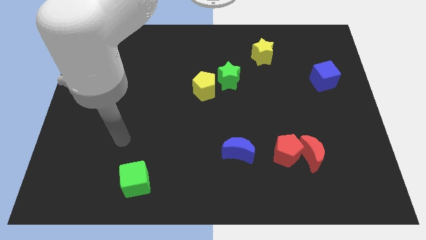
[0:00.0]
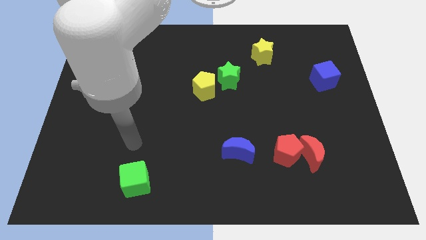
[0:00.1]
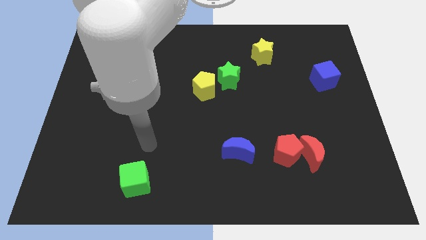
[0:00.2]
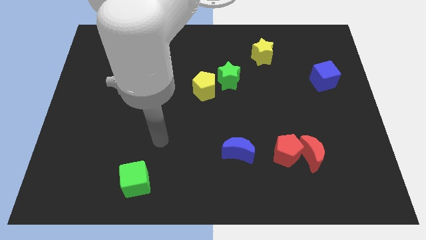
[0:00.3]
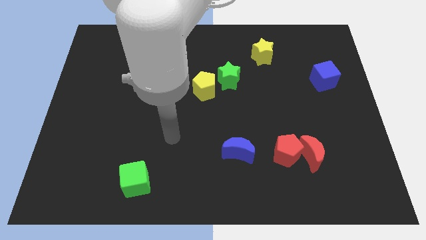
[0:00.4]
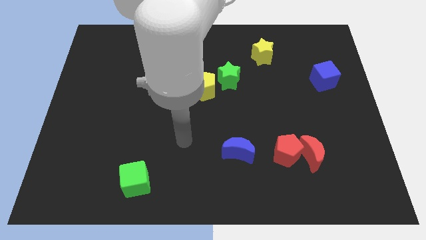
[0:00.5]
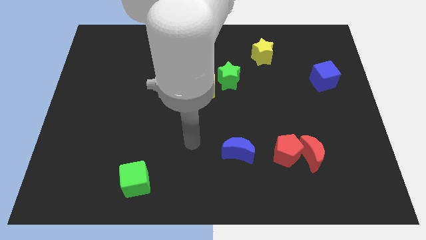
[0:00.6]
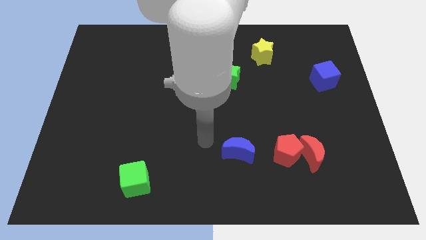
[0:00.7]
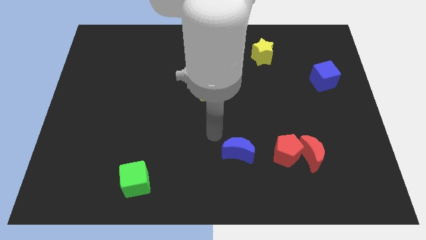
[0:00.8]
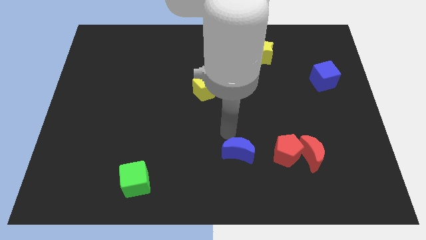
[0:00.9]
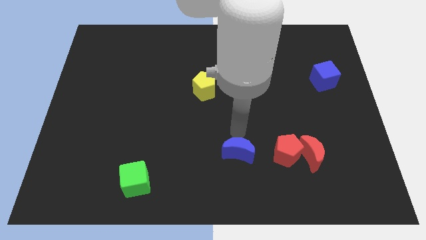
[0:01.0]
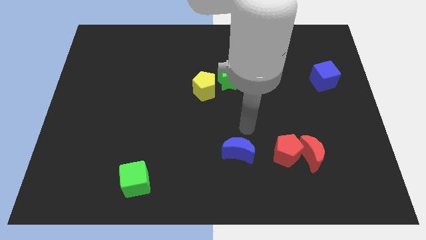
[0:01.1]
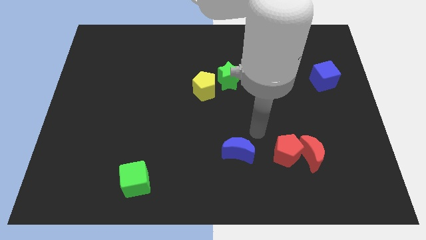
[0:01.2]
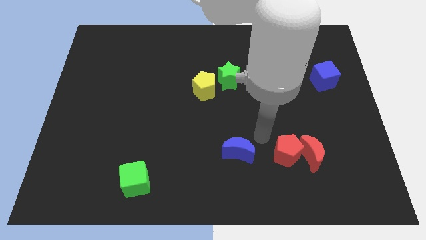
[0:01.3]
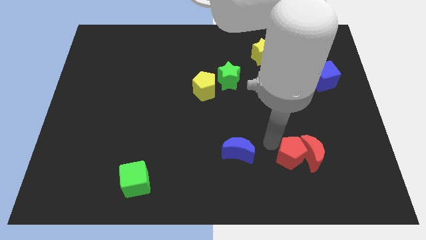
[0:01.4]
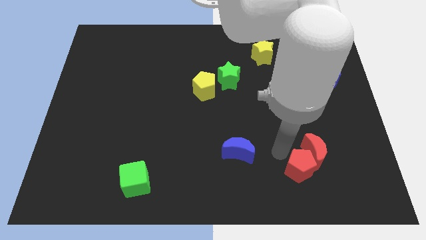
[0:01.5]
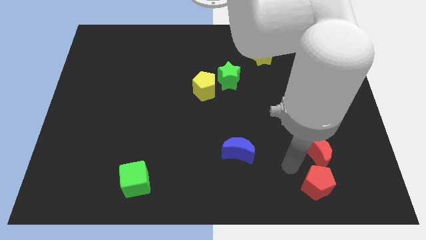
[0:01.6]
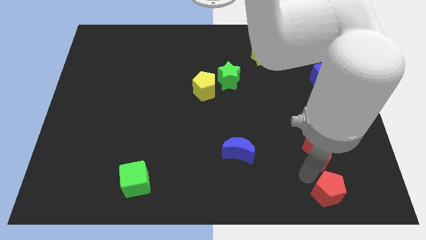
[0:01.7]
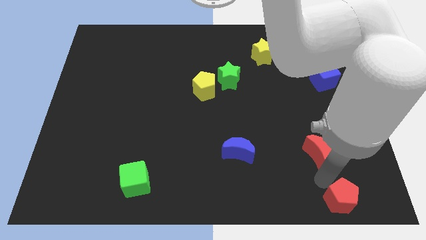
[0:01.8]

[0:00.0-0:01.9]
pull the red moon apart from the red pentagon

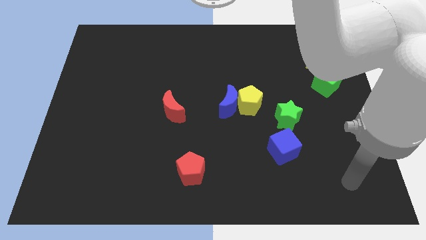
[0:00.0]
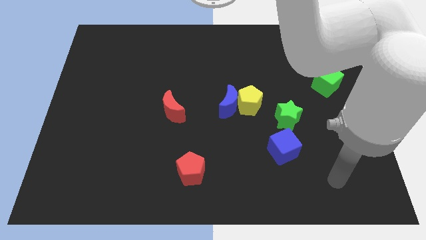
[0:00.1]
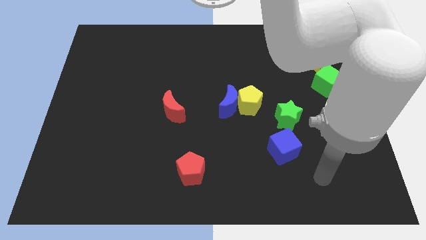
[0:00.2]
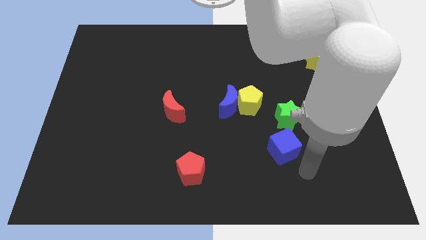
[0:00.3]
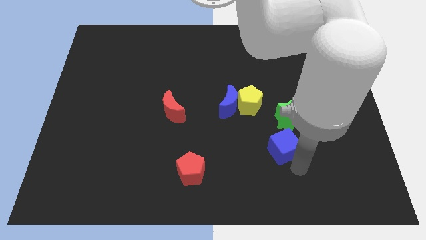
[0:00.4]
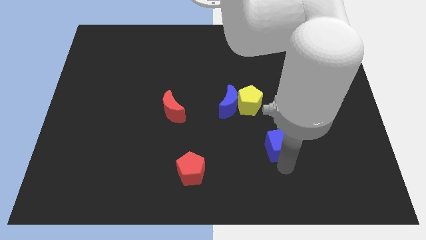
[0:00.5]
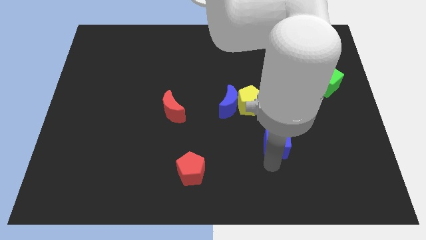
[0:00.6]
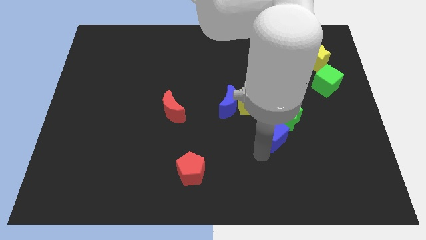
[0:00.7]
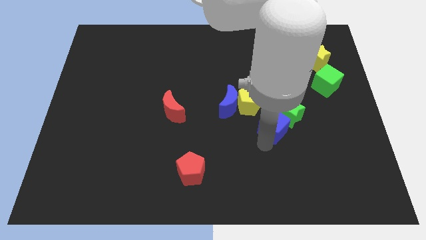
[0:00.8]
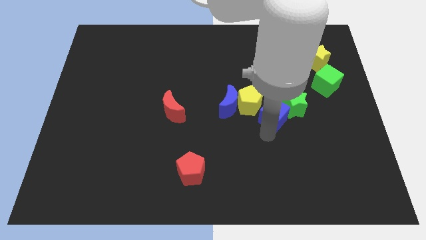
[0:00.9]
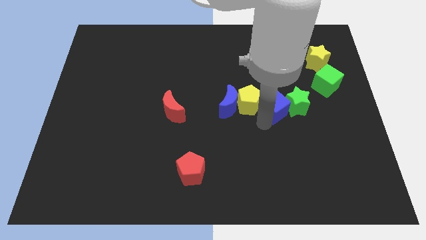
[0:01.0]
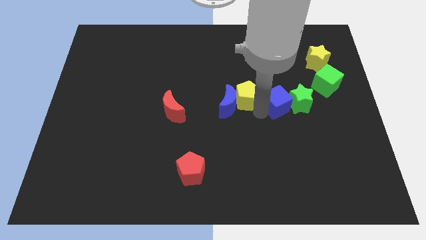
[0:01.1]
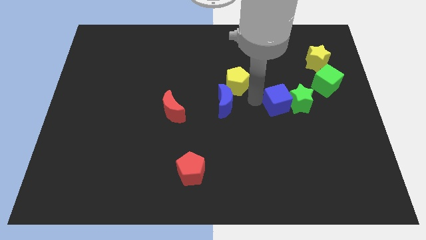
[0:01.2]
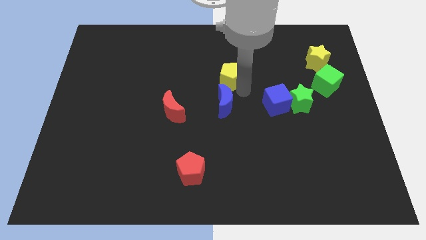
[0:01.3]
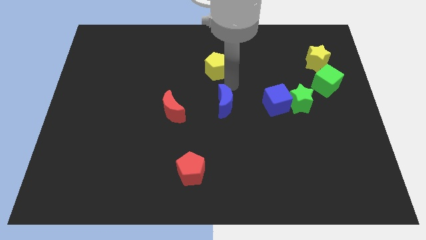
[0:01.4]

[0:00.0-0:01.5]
move the blue moon away from the yellow pentagon

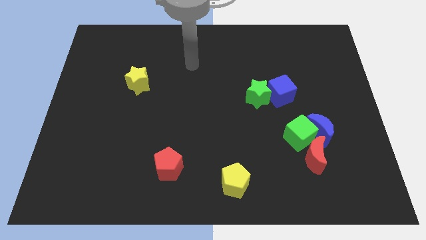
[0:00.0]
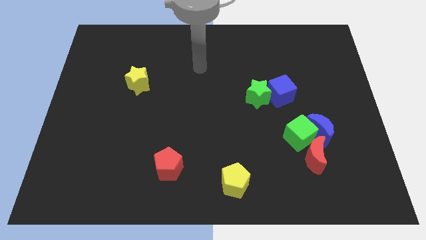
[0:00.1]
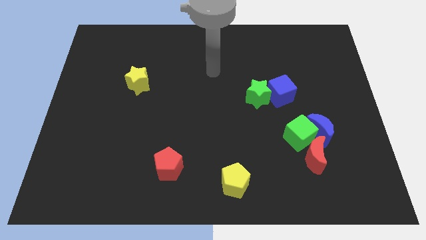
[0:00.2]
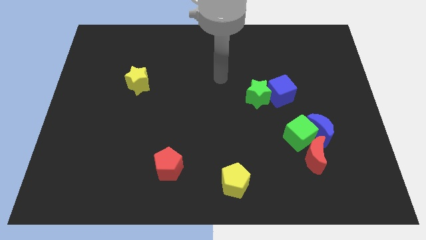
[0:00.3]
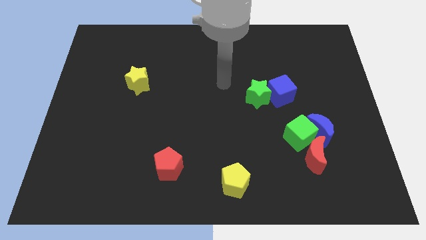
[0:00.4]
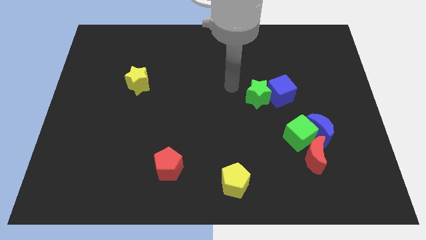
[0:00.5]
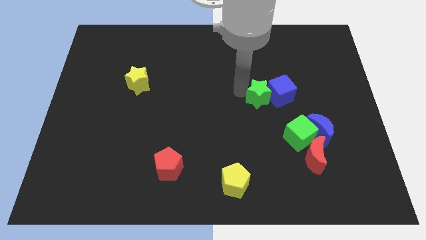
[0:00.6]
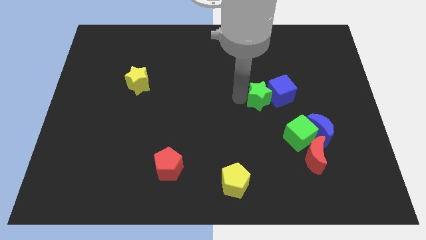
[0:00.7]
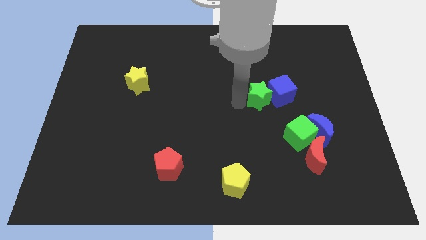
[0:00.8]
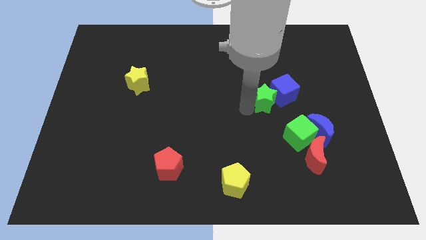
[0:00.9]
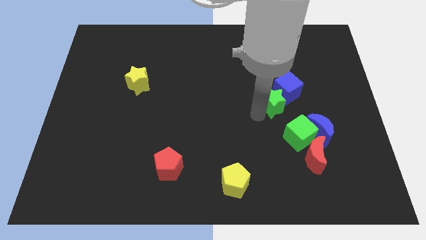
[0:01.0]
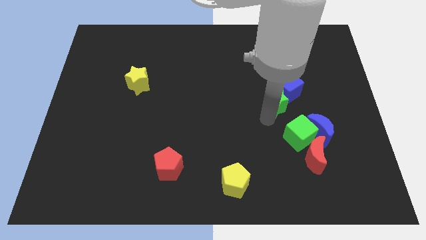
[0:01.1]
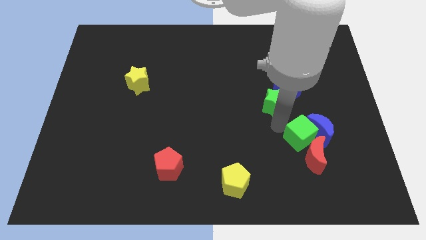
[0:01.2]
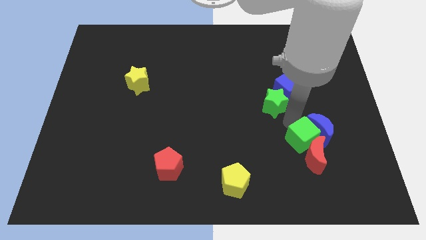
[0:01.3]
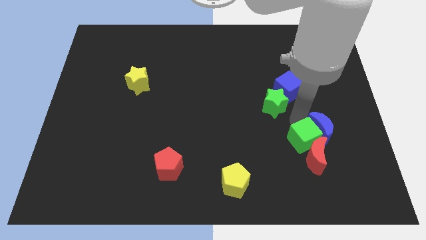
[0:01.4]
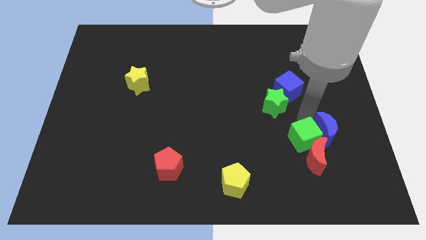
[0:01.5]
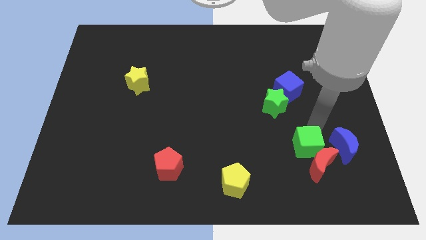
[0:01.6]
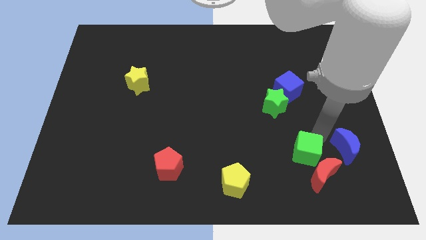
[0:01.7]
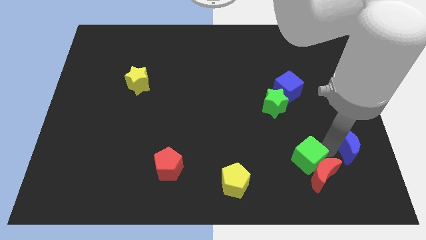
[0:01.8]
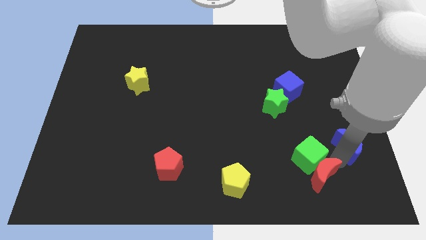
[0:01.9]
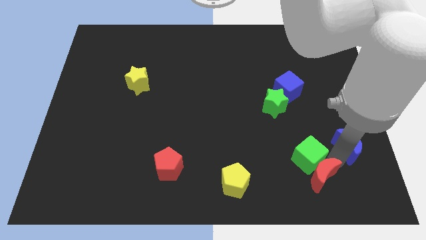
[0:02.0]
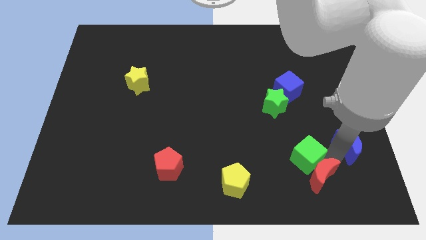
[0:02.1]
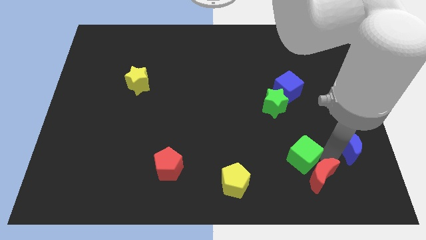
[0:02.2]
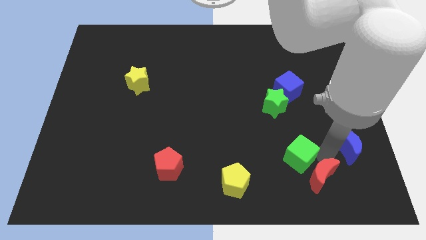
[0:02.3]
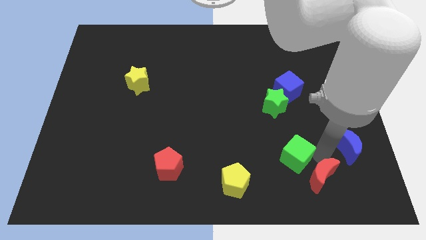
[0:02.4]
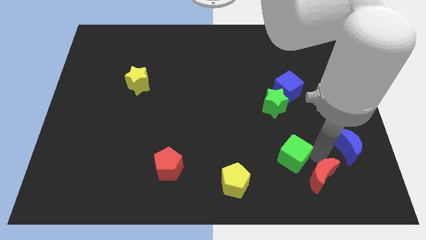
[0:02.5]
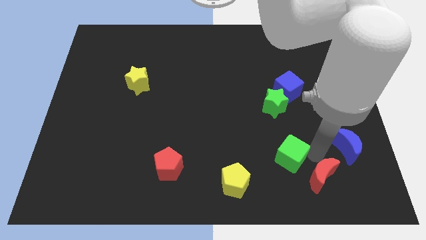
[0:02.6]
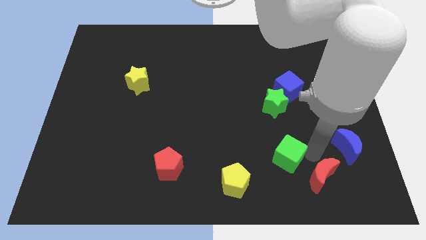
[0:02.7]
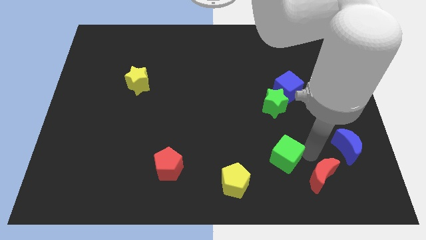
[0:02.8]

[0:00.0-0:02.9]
separate the green cube from the blue moon and red moon

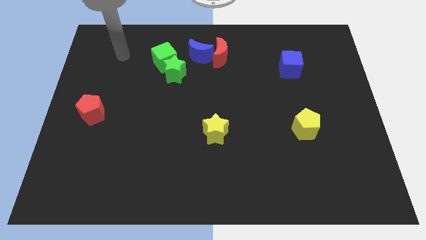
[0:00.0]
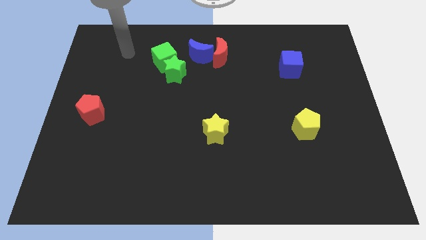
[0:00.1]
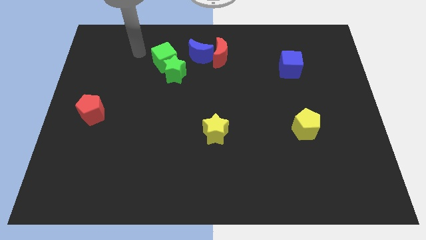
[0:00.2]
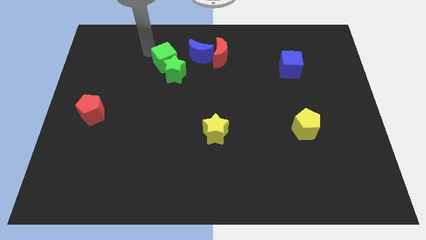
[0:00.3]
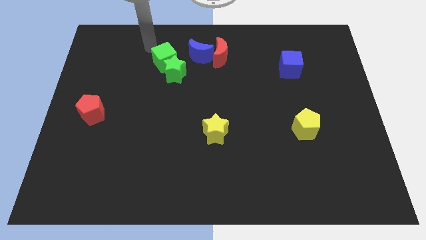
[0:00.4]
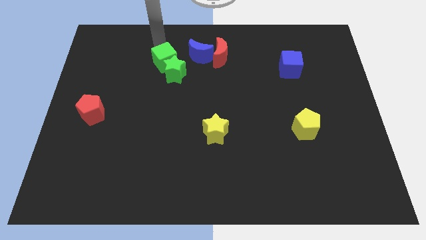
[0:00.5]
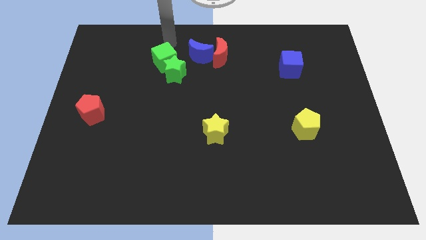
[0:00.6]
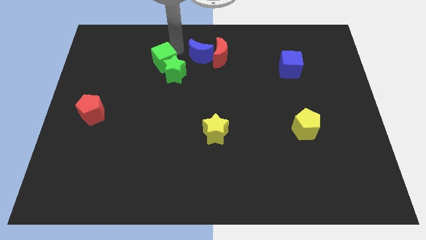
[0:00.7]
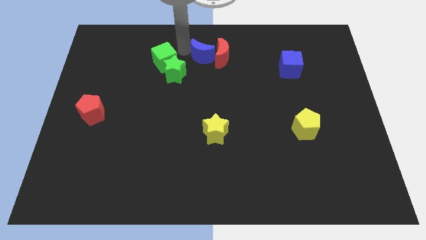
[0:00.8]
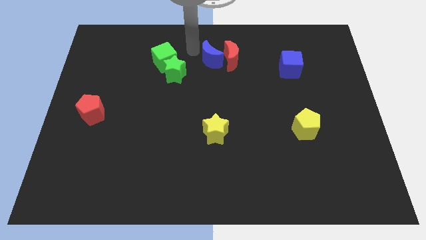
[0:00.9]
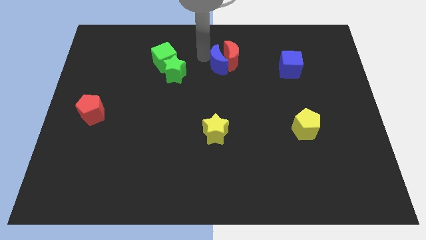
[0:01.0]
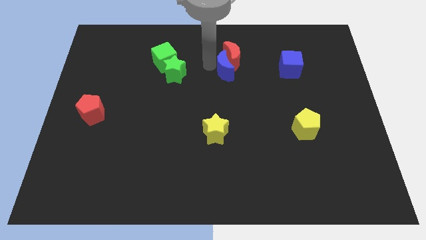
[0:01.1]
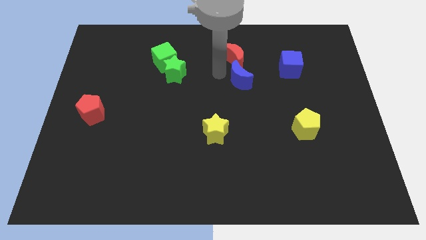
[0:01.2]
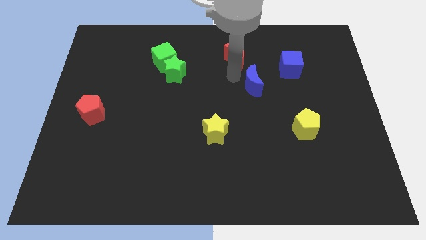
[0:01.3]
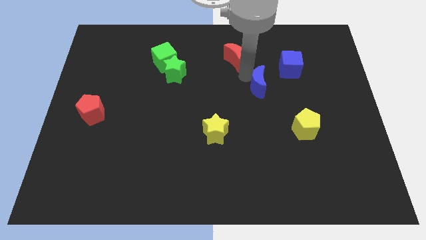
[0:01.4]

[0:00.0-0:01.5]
separate the red moon from the blue moon

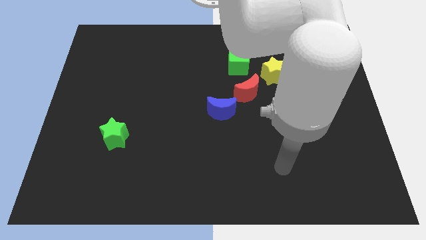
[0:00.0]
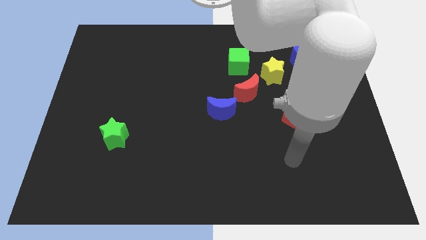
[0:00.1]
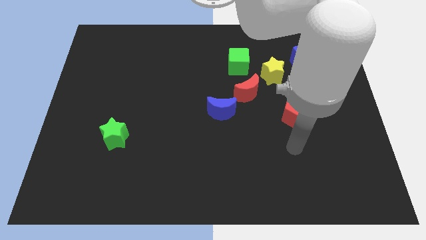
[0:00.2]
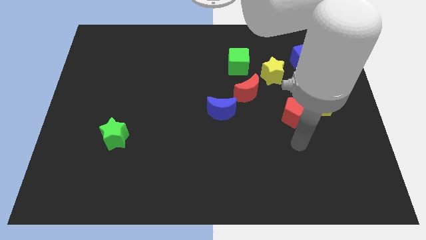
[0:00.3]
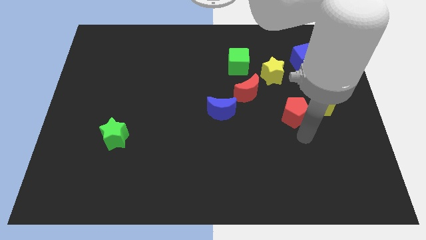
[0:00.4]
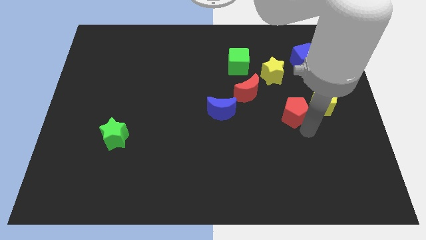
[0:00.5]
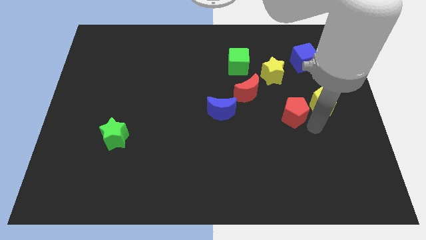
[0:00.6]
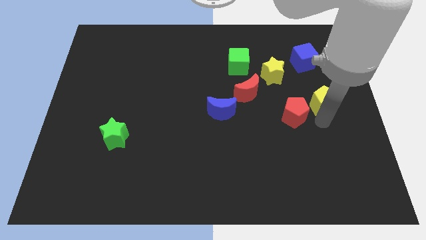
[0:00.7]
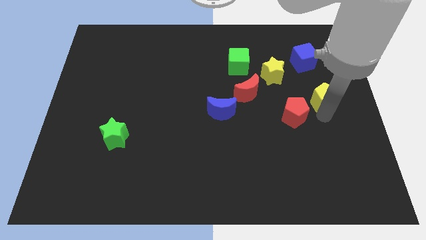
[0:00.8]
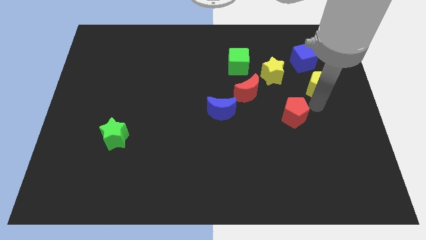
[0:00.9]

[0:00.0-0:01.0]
pull the red pentagon apart from the yellow pentagon

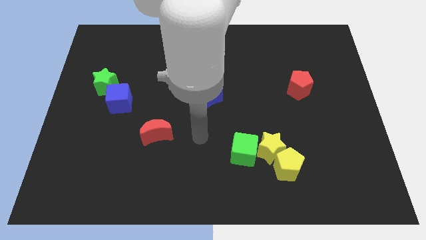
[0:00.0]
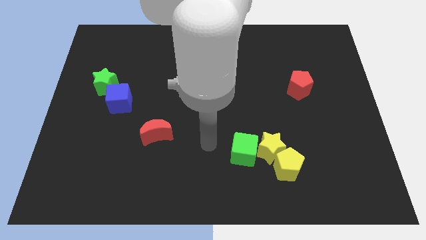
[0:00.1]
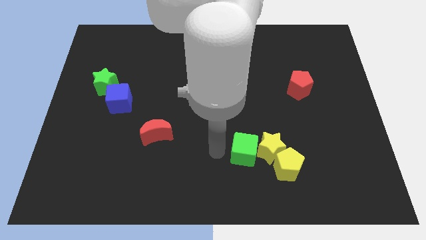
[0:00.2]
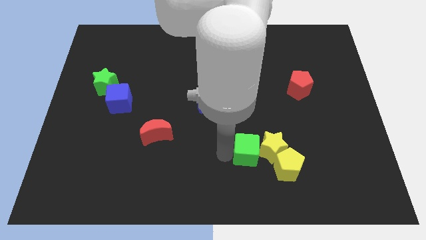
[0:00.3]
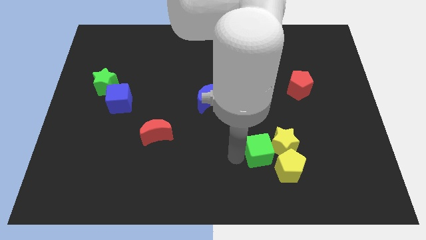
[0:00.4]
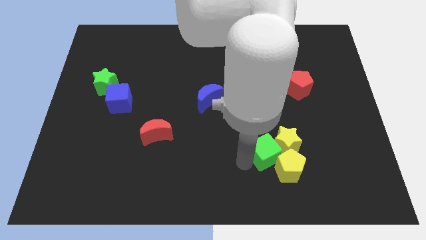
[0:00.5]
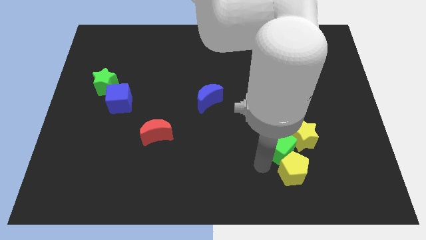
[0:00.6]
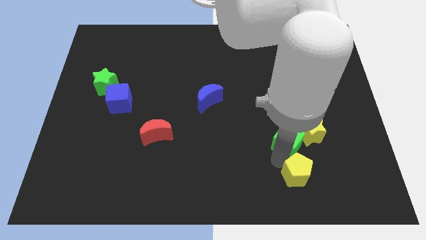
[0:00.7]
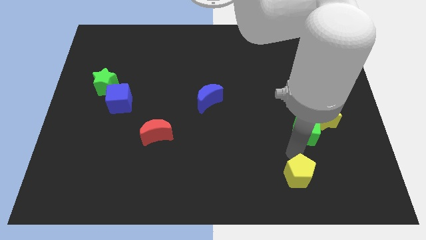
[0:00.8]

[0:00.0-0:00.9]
pull the yellow star apart from the yellow pentagon and green cube
